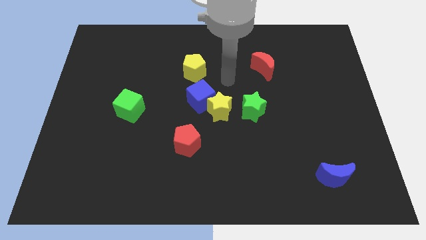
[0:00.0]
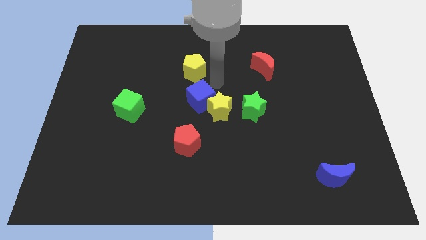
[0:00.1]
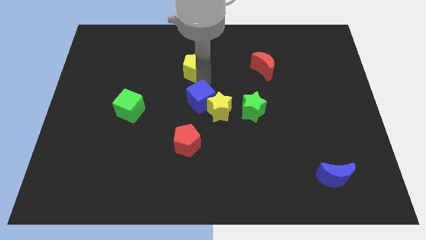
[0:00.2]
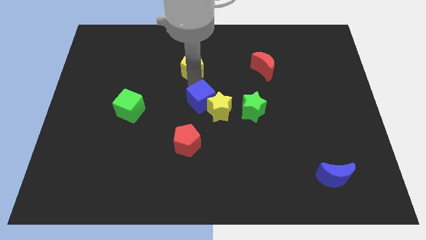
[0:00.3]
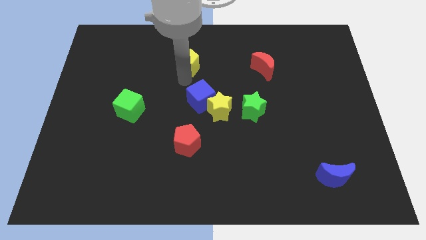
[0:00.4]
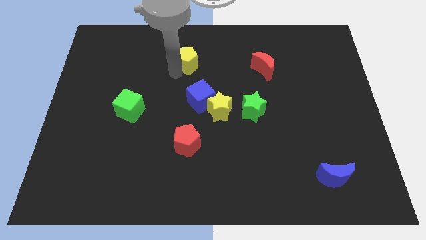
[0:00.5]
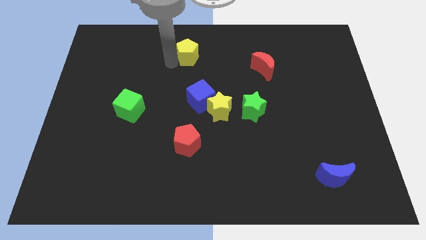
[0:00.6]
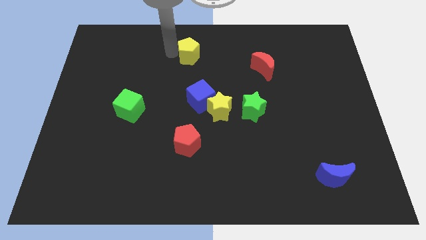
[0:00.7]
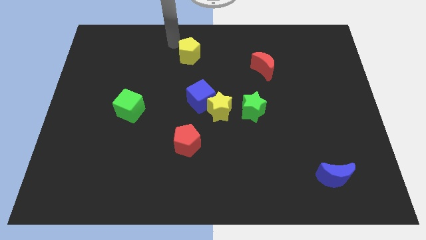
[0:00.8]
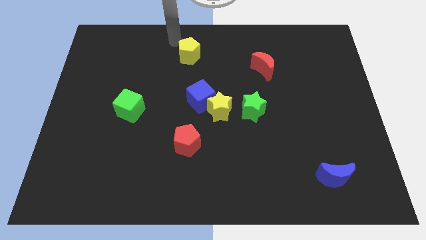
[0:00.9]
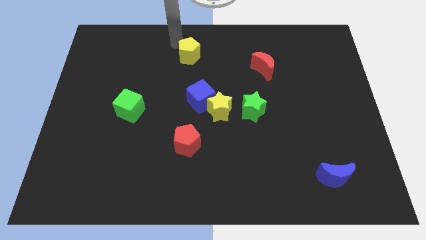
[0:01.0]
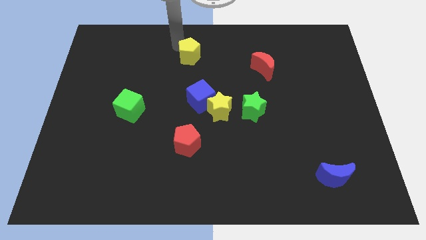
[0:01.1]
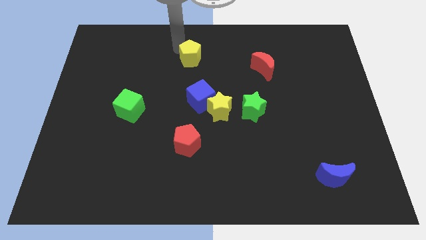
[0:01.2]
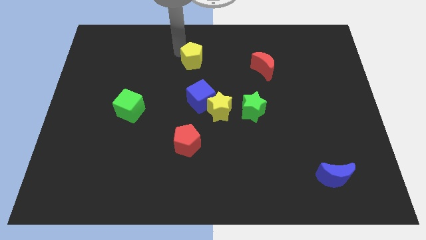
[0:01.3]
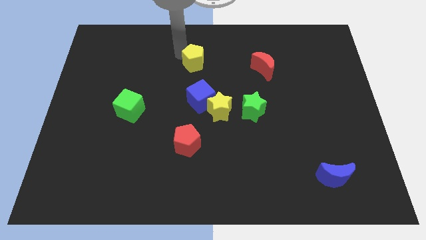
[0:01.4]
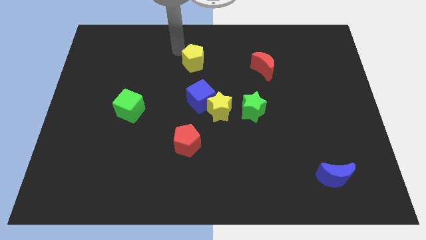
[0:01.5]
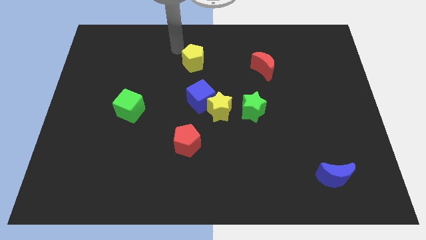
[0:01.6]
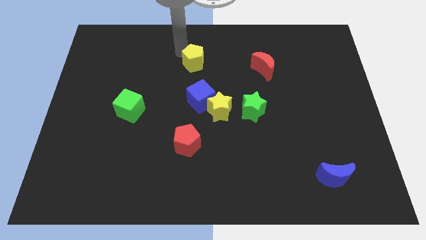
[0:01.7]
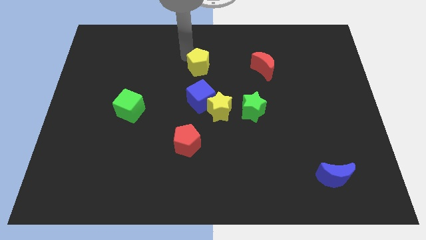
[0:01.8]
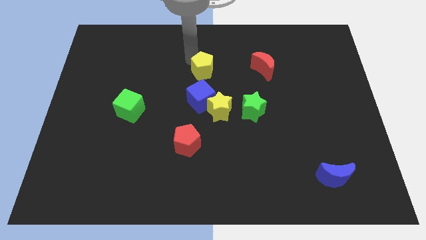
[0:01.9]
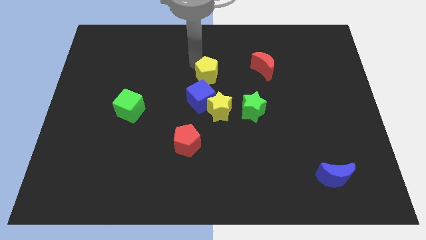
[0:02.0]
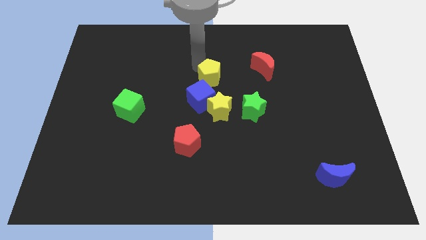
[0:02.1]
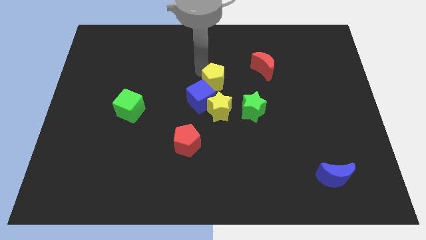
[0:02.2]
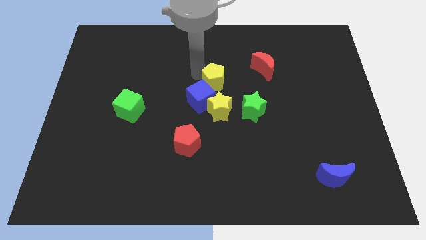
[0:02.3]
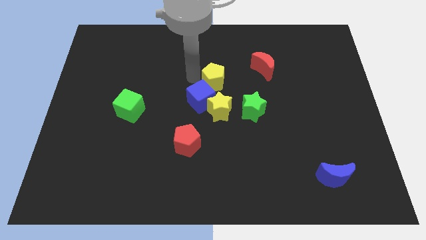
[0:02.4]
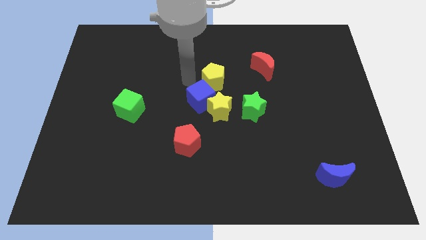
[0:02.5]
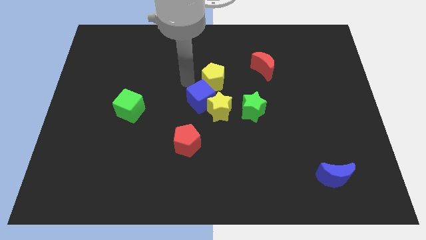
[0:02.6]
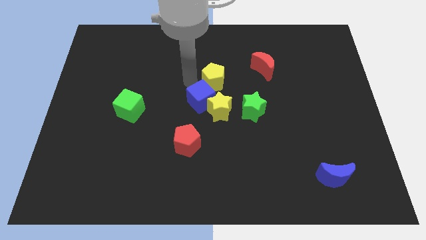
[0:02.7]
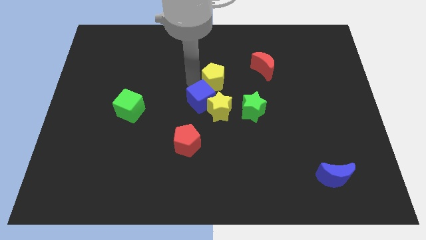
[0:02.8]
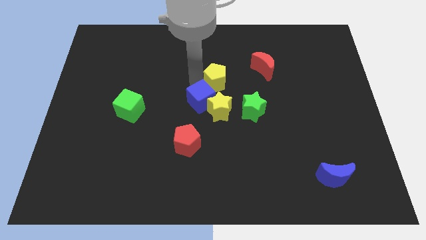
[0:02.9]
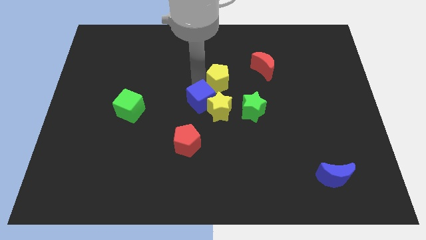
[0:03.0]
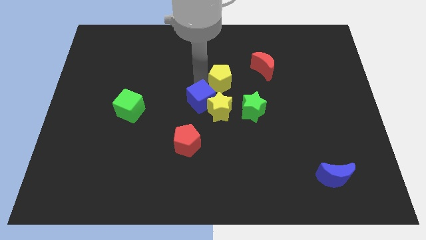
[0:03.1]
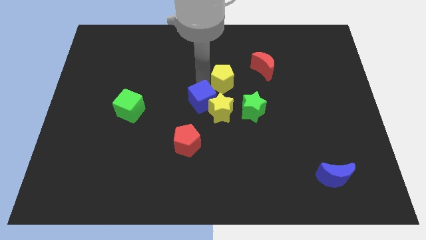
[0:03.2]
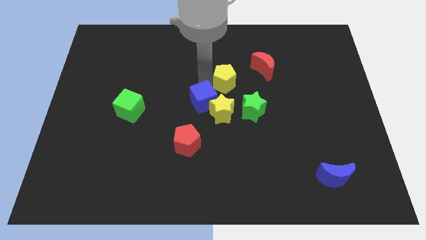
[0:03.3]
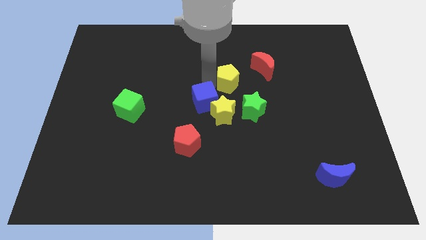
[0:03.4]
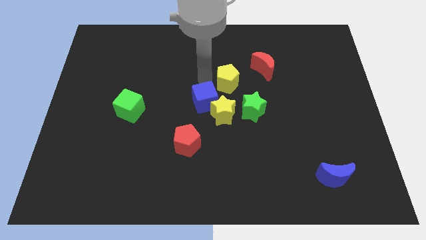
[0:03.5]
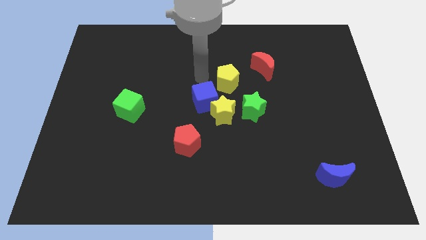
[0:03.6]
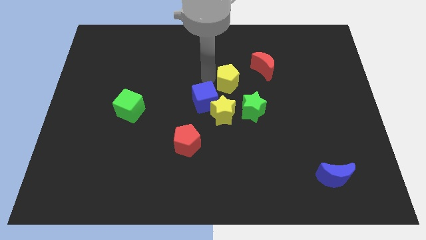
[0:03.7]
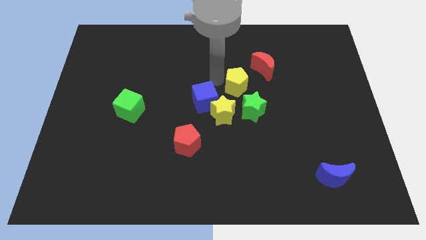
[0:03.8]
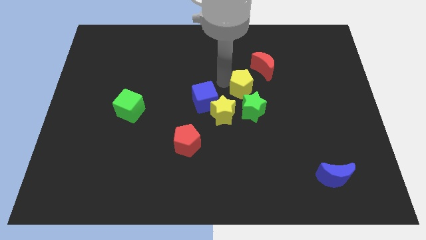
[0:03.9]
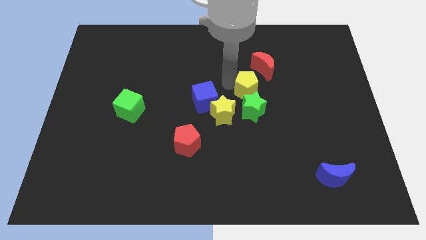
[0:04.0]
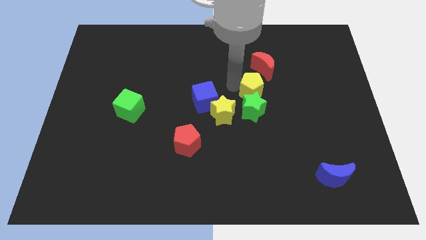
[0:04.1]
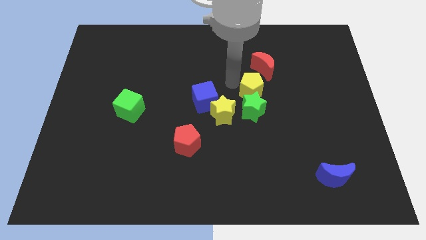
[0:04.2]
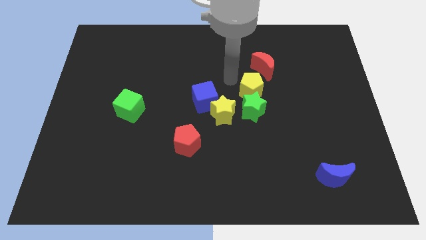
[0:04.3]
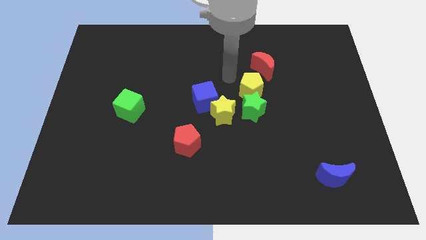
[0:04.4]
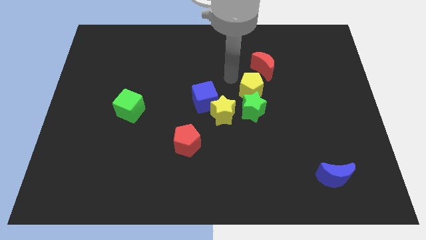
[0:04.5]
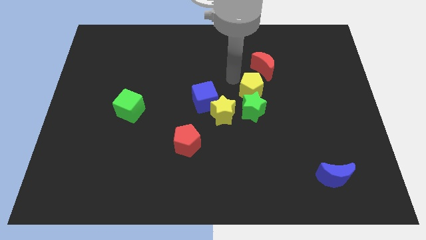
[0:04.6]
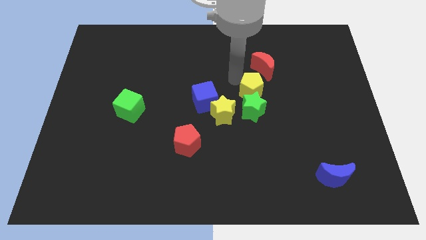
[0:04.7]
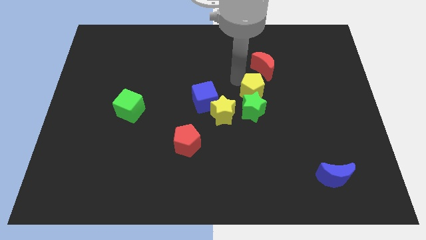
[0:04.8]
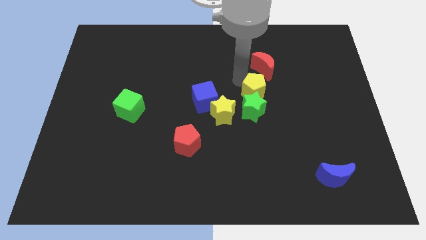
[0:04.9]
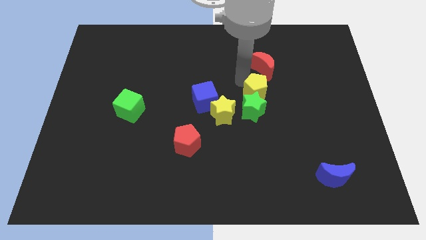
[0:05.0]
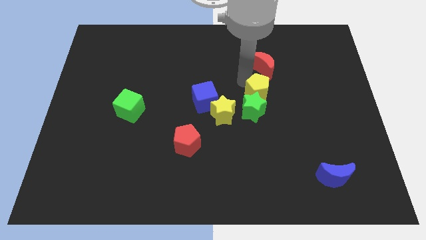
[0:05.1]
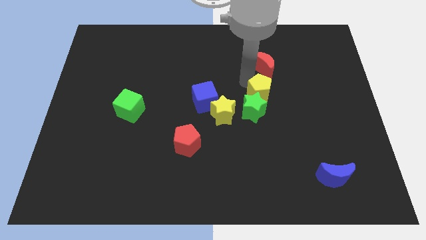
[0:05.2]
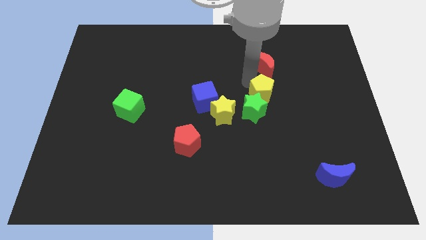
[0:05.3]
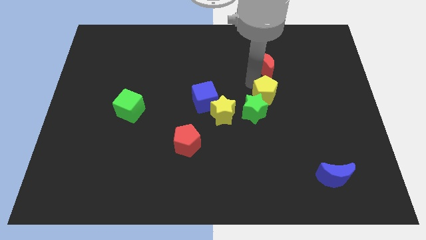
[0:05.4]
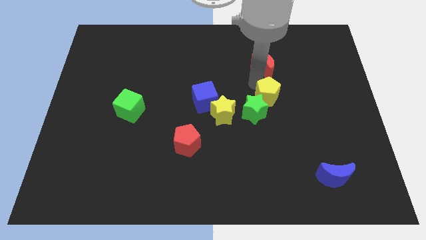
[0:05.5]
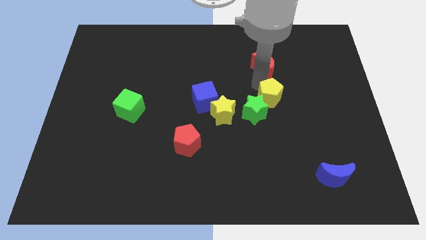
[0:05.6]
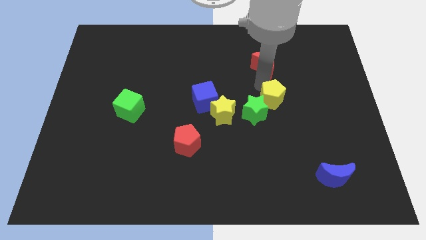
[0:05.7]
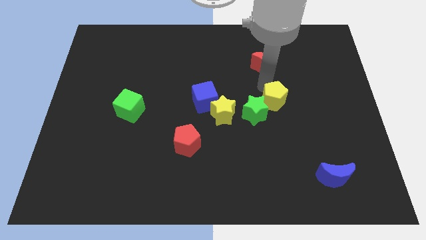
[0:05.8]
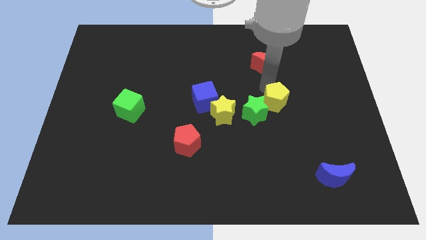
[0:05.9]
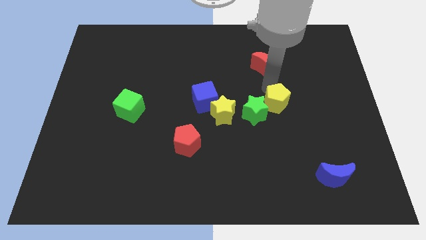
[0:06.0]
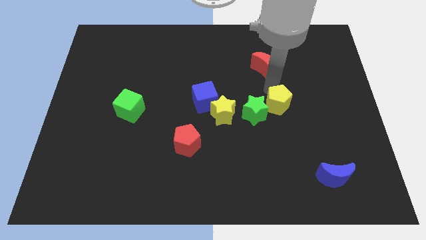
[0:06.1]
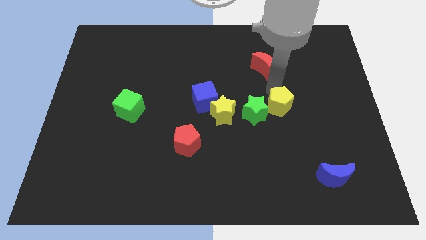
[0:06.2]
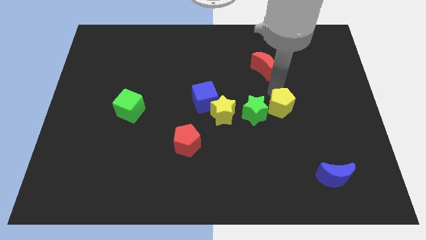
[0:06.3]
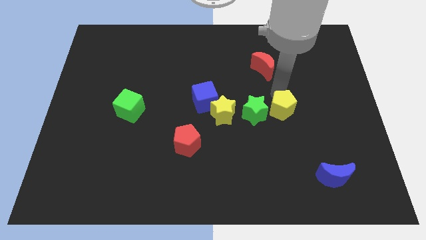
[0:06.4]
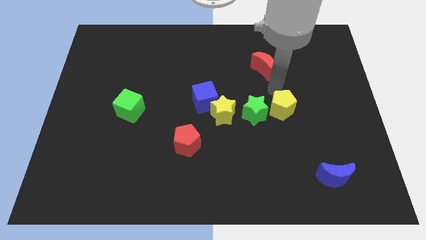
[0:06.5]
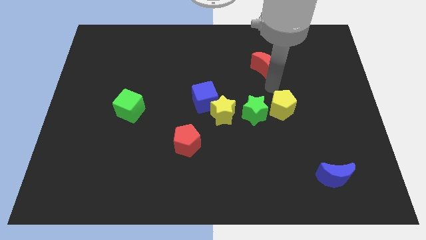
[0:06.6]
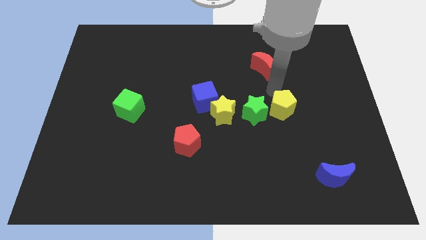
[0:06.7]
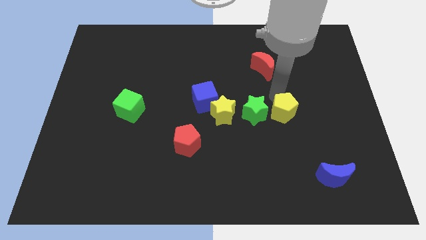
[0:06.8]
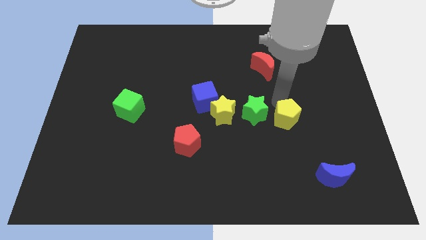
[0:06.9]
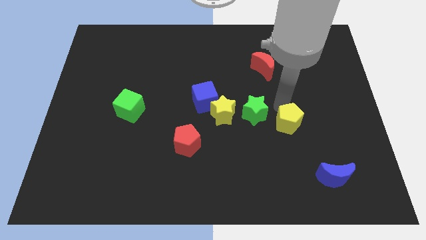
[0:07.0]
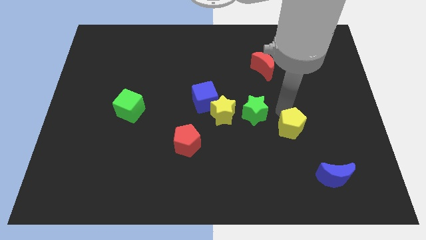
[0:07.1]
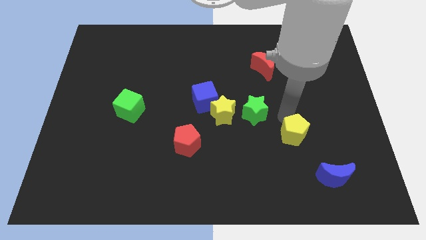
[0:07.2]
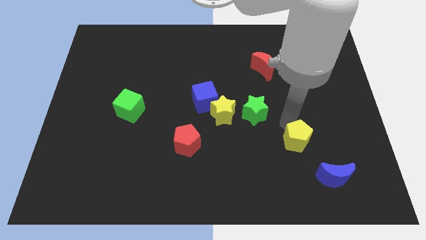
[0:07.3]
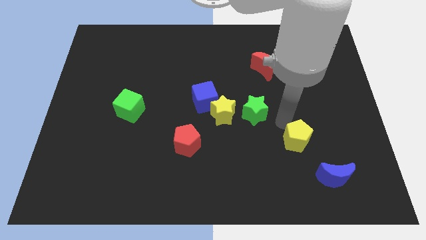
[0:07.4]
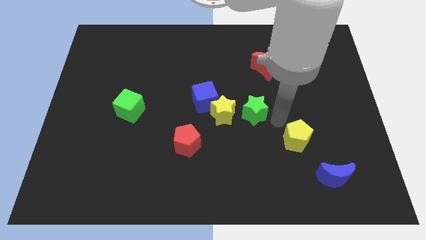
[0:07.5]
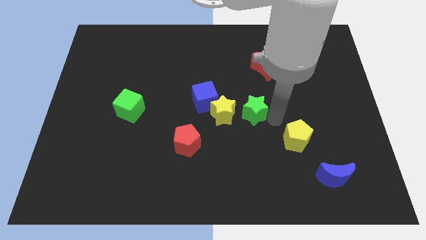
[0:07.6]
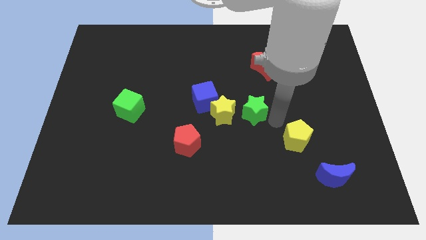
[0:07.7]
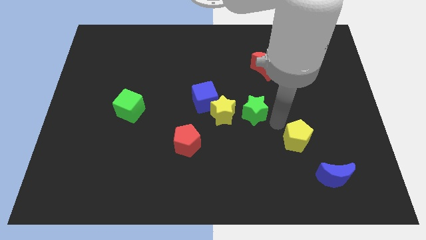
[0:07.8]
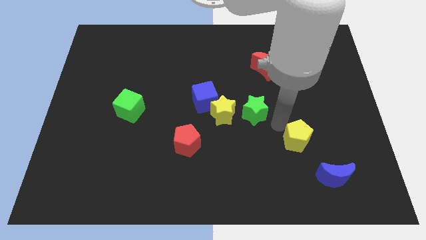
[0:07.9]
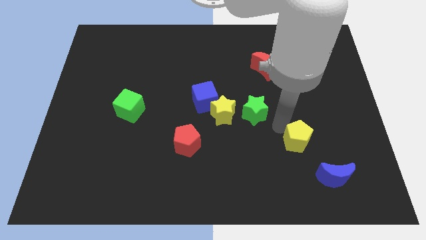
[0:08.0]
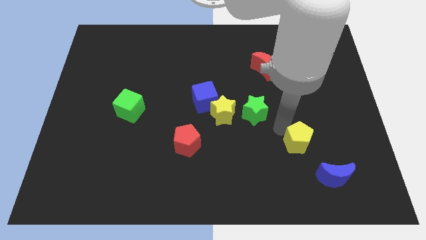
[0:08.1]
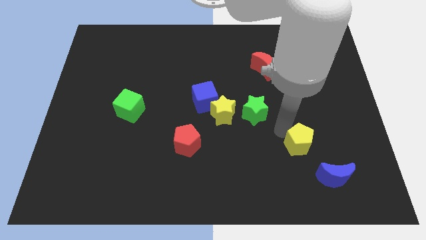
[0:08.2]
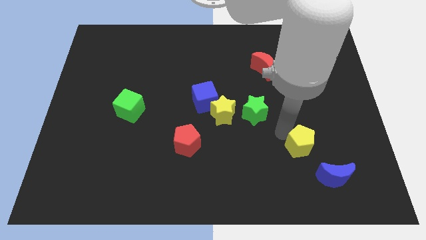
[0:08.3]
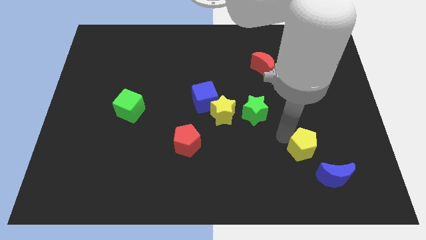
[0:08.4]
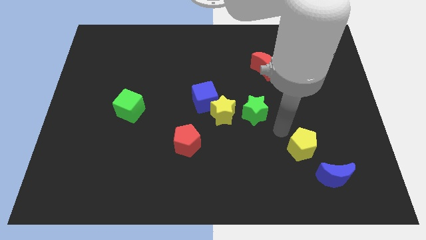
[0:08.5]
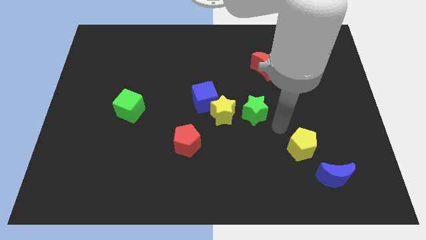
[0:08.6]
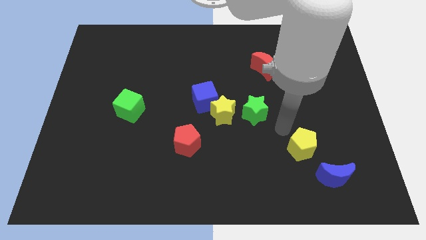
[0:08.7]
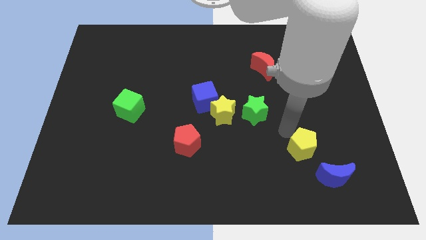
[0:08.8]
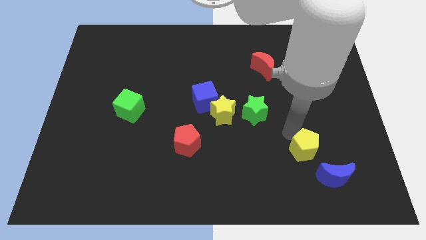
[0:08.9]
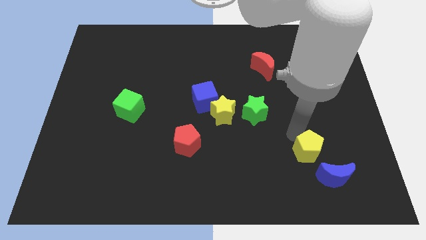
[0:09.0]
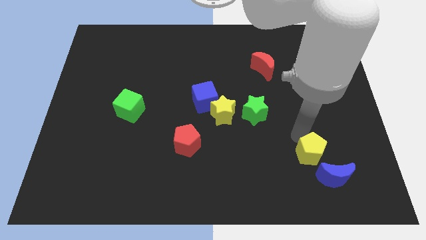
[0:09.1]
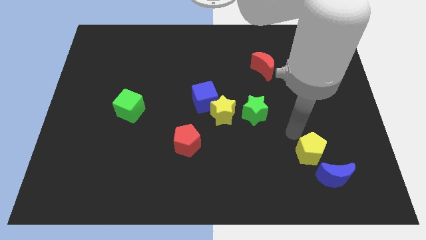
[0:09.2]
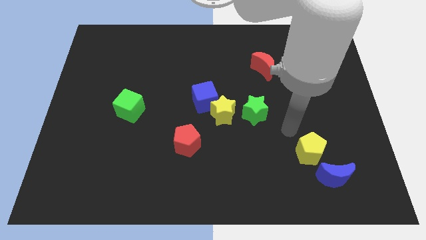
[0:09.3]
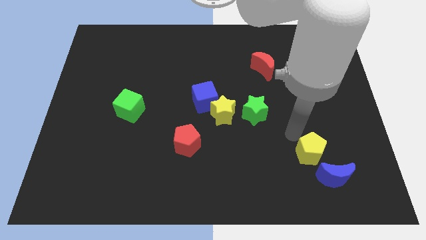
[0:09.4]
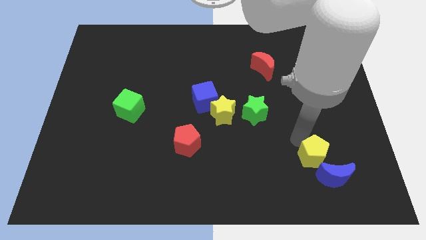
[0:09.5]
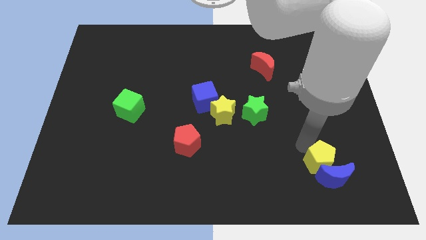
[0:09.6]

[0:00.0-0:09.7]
move the yellow pentagon to the blue moon
